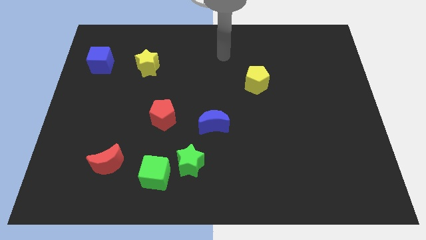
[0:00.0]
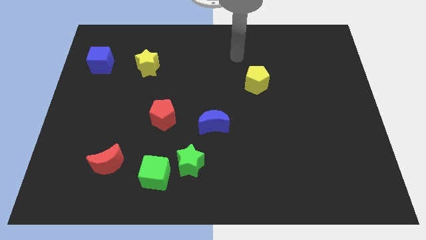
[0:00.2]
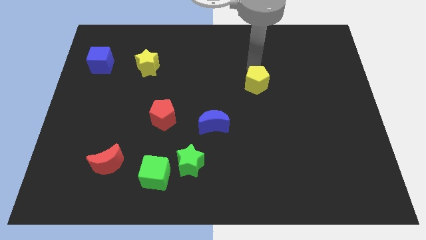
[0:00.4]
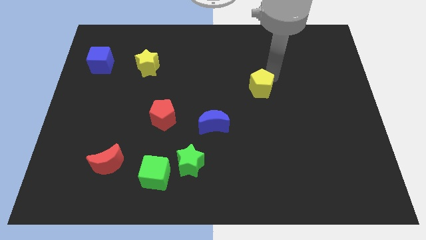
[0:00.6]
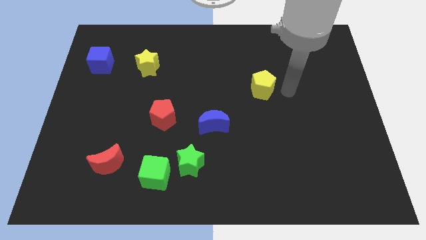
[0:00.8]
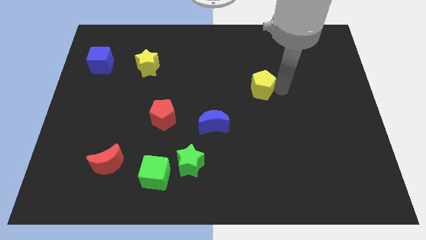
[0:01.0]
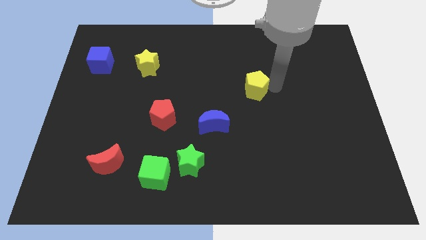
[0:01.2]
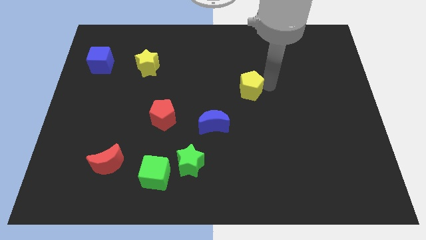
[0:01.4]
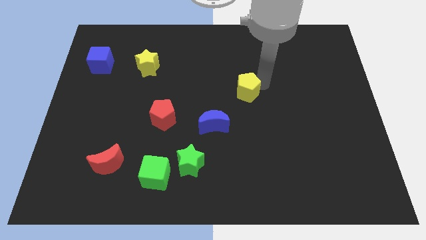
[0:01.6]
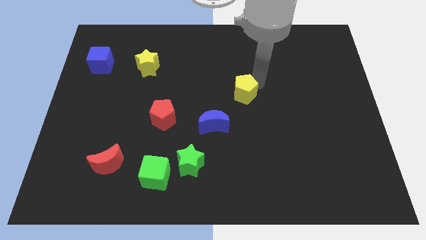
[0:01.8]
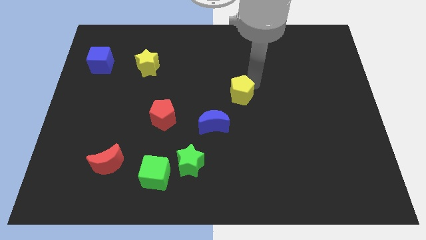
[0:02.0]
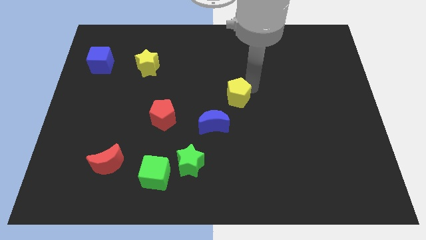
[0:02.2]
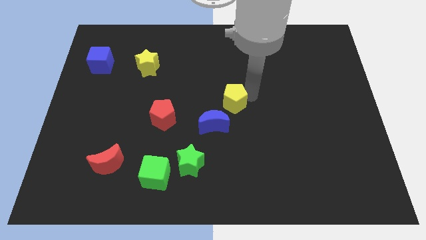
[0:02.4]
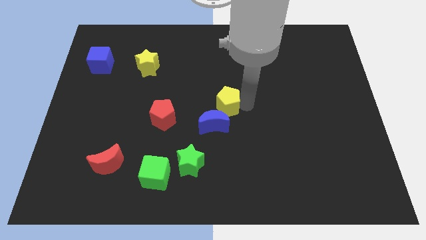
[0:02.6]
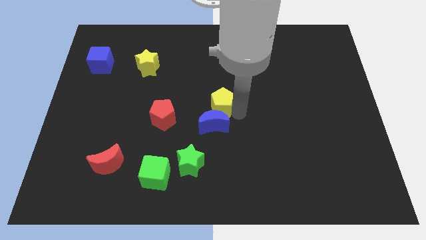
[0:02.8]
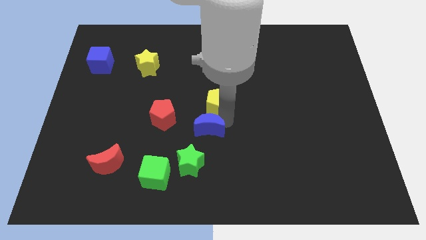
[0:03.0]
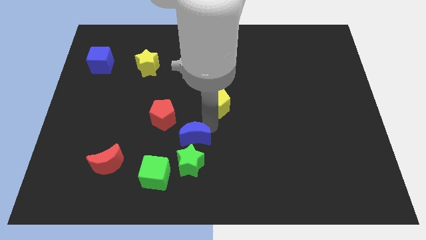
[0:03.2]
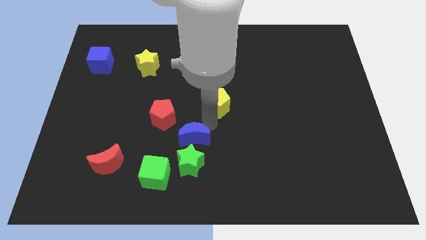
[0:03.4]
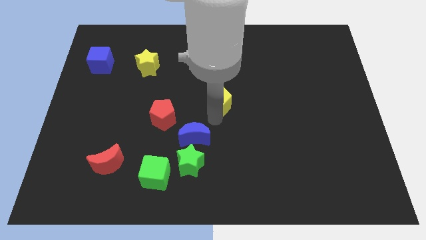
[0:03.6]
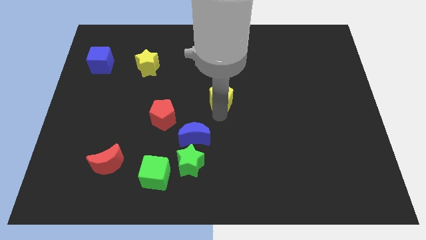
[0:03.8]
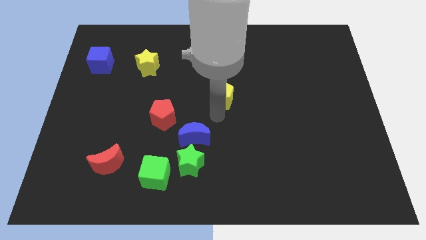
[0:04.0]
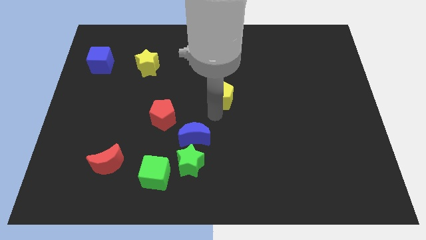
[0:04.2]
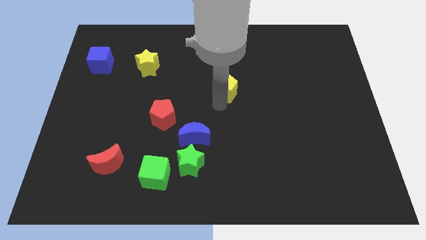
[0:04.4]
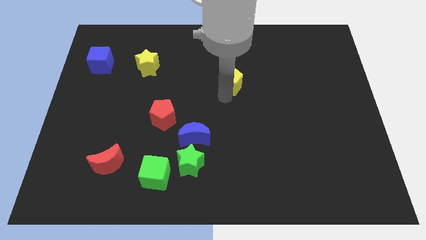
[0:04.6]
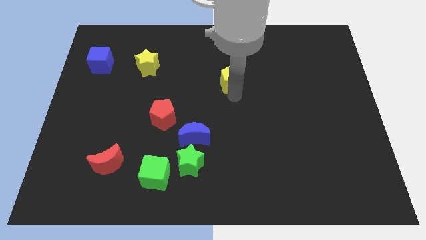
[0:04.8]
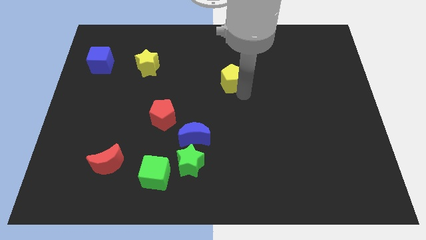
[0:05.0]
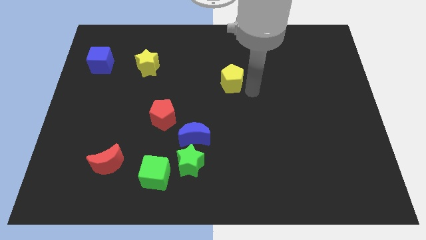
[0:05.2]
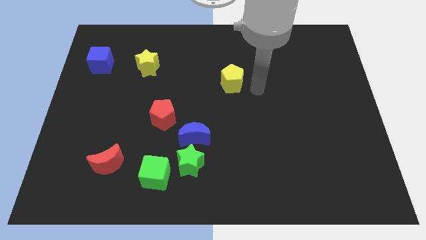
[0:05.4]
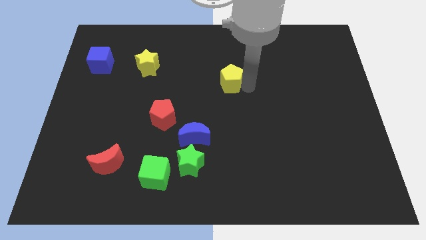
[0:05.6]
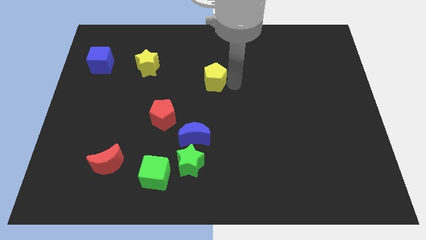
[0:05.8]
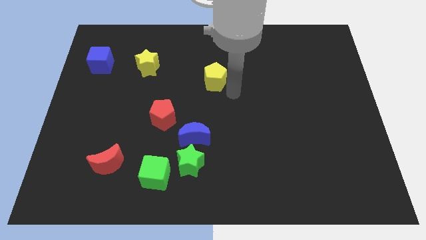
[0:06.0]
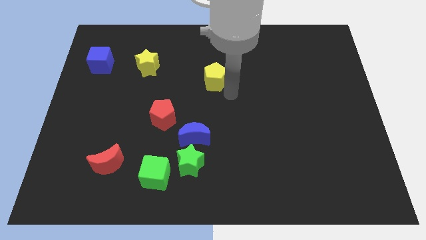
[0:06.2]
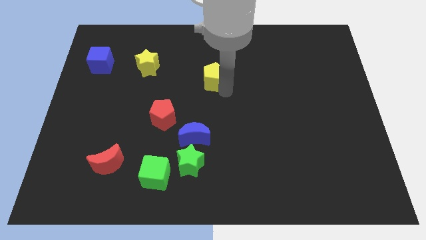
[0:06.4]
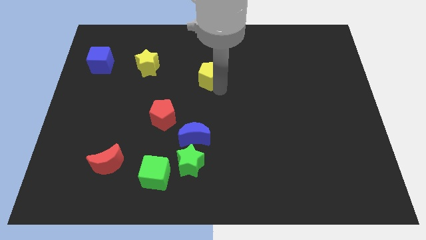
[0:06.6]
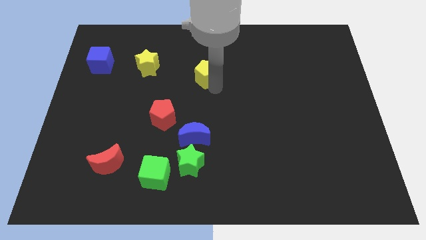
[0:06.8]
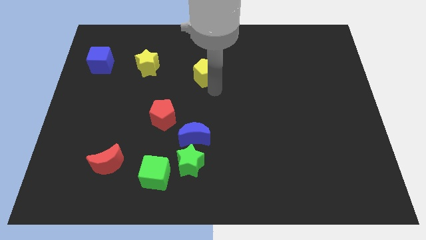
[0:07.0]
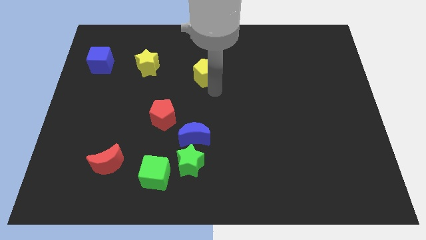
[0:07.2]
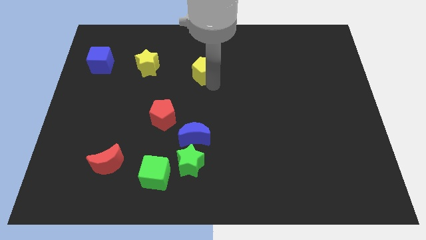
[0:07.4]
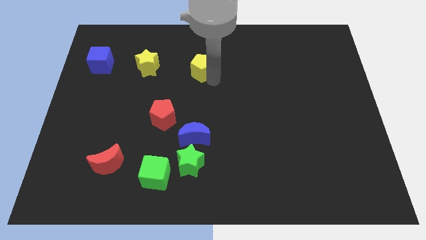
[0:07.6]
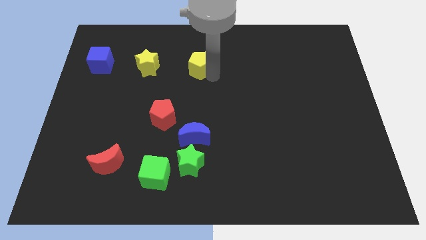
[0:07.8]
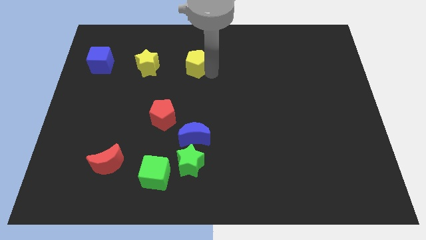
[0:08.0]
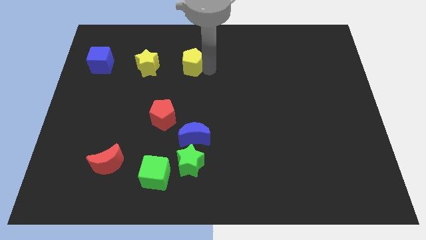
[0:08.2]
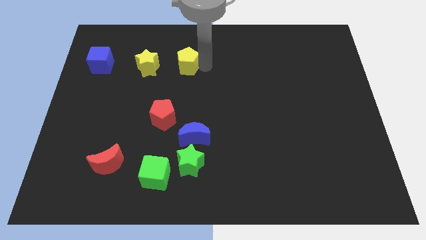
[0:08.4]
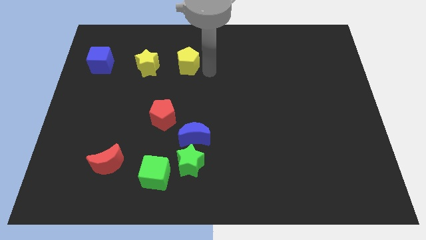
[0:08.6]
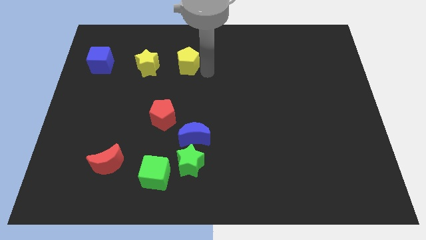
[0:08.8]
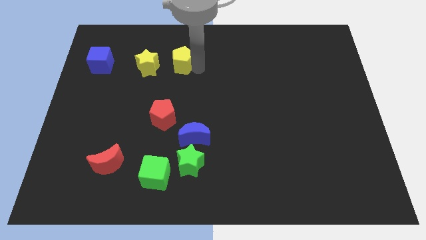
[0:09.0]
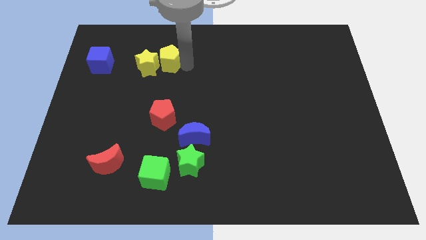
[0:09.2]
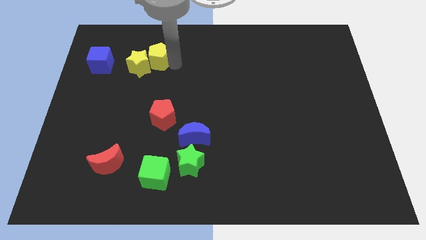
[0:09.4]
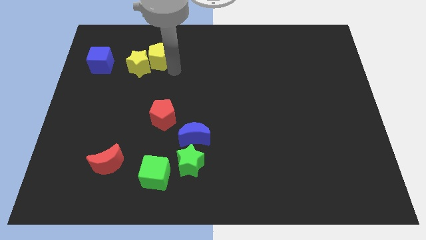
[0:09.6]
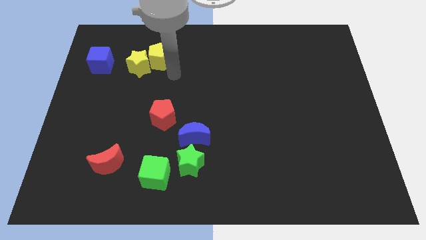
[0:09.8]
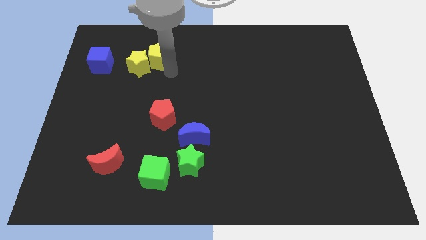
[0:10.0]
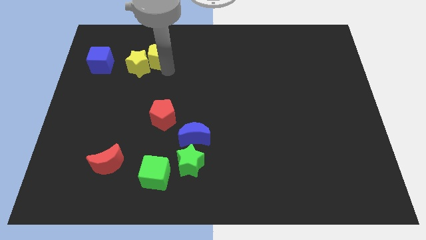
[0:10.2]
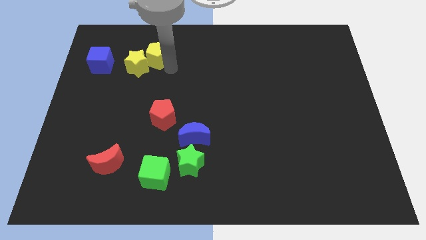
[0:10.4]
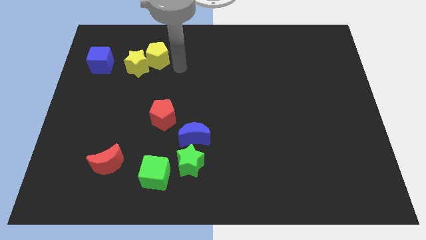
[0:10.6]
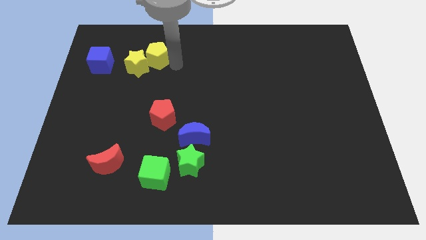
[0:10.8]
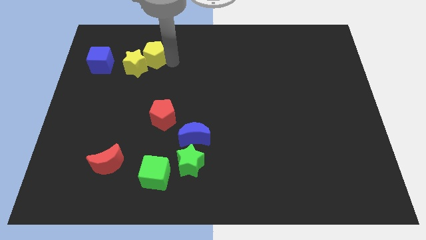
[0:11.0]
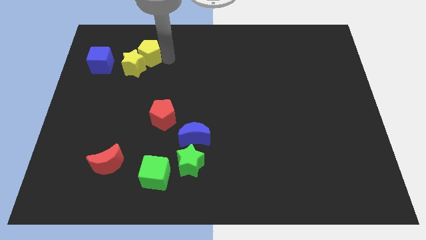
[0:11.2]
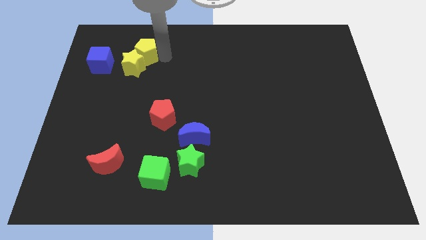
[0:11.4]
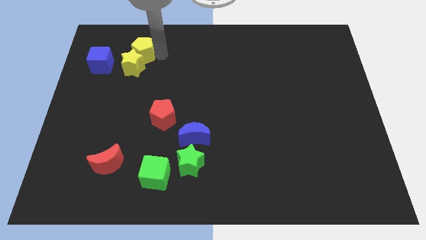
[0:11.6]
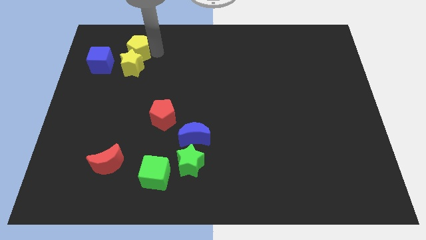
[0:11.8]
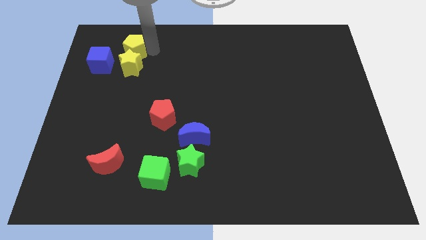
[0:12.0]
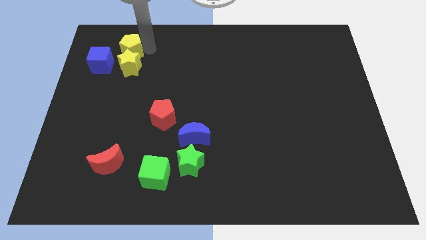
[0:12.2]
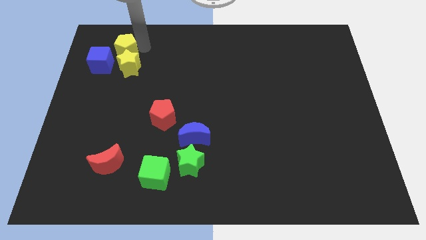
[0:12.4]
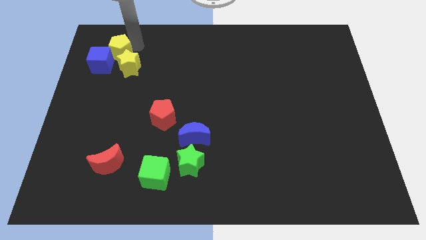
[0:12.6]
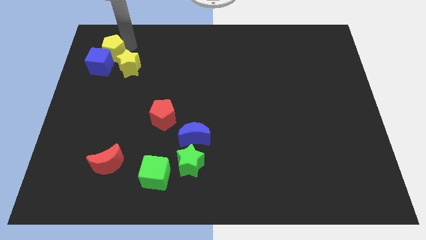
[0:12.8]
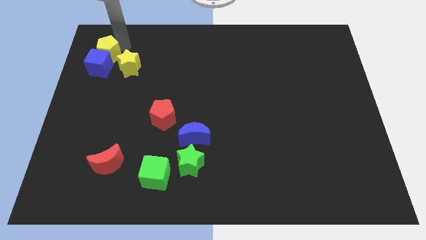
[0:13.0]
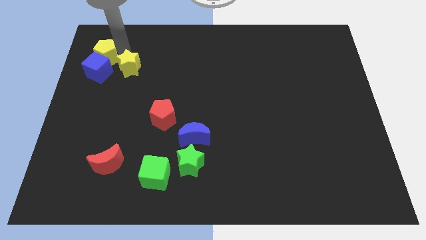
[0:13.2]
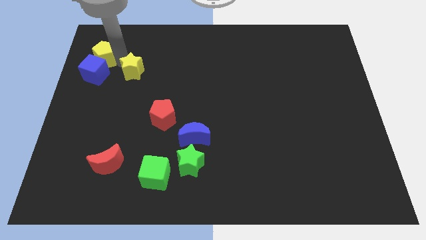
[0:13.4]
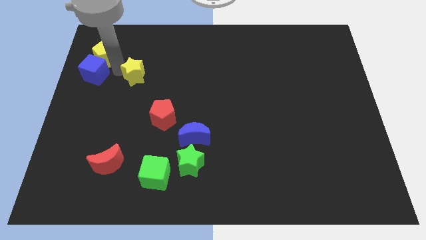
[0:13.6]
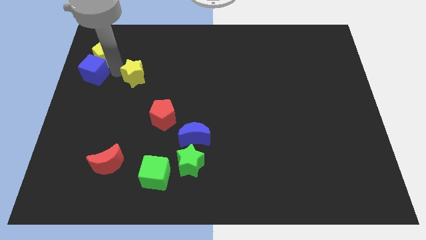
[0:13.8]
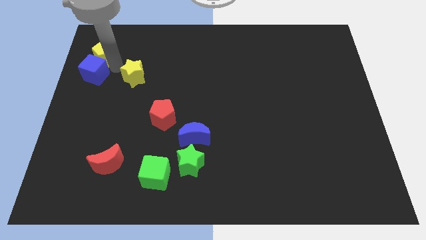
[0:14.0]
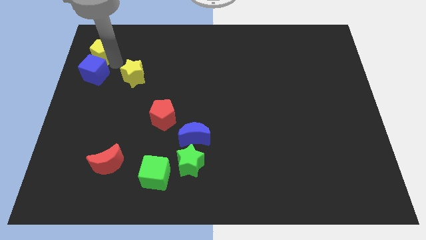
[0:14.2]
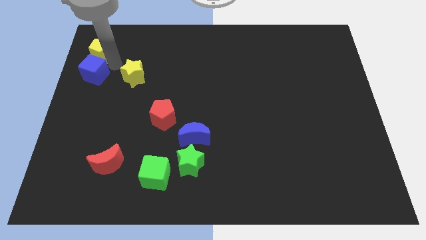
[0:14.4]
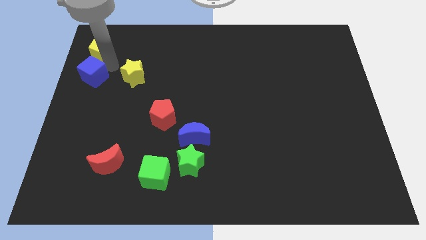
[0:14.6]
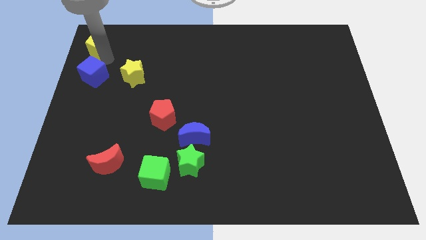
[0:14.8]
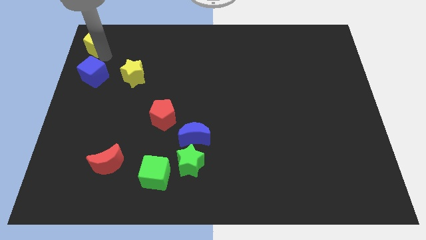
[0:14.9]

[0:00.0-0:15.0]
put the yellow pentagon to the top left corner
